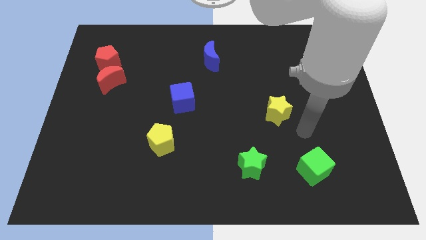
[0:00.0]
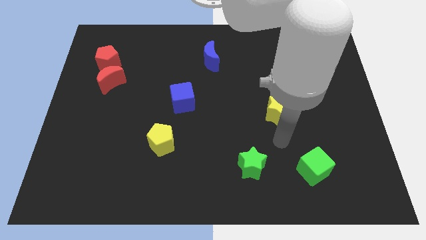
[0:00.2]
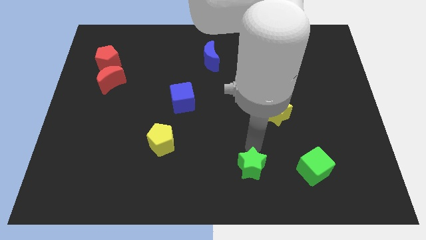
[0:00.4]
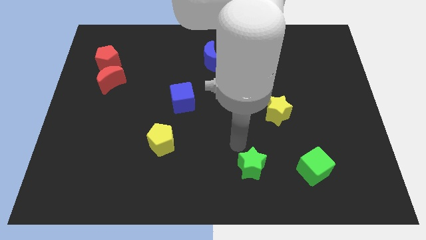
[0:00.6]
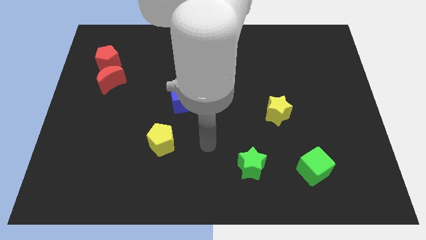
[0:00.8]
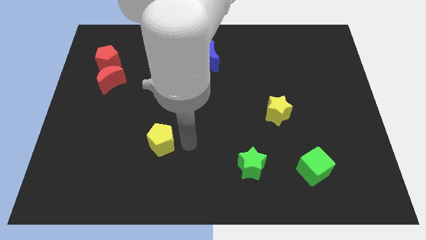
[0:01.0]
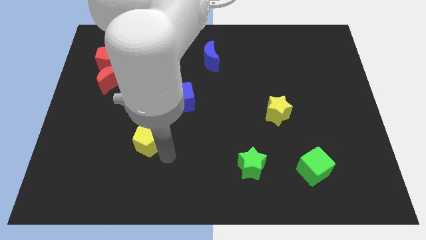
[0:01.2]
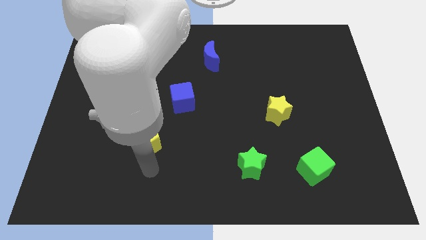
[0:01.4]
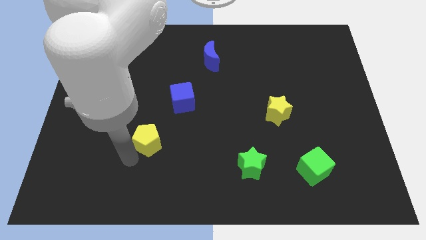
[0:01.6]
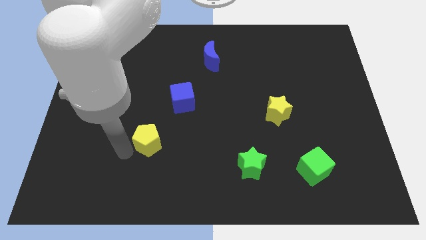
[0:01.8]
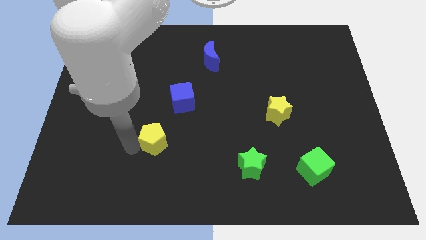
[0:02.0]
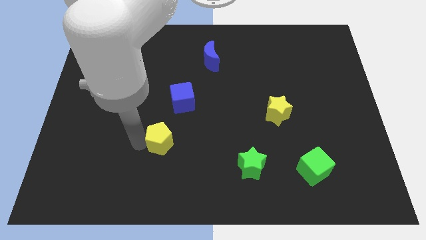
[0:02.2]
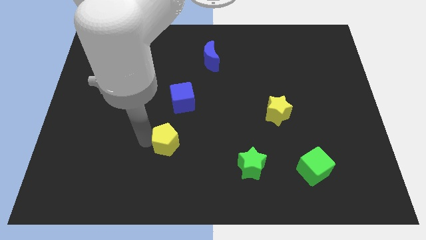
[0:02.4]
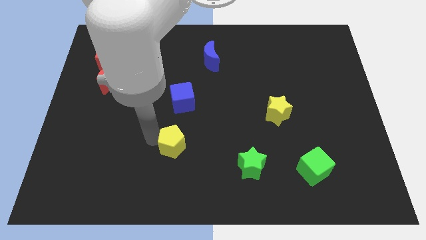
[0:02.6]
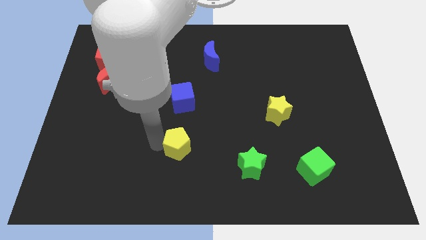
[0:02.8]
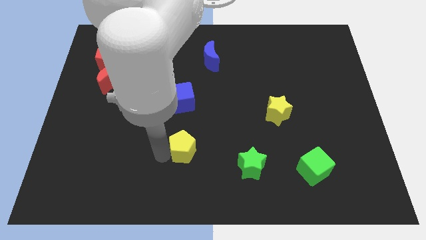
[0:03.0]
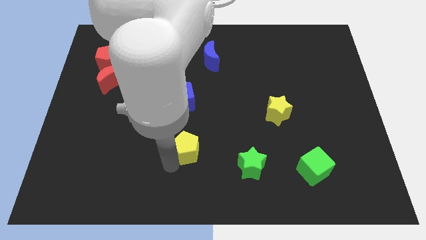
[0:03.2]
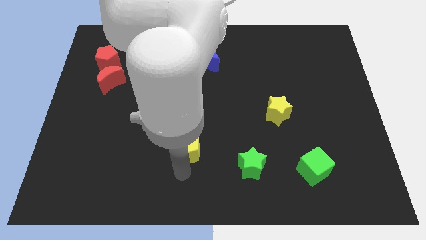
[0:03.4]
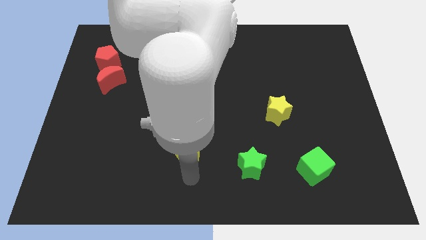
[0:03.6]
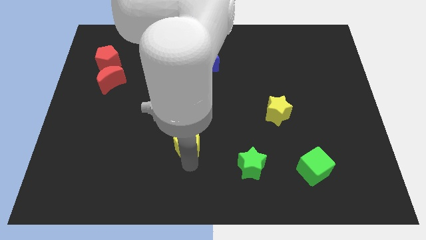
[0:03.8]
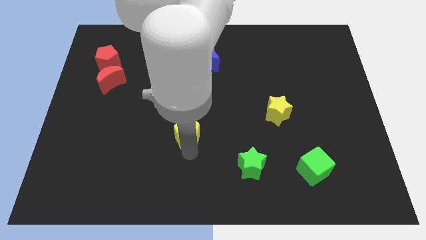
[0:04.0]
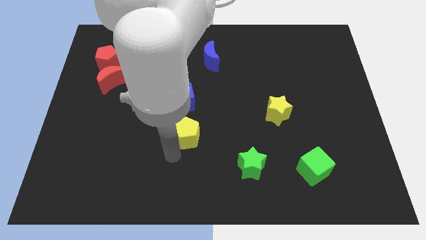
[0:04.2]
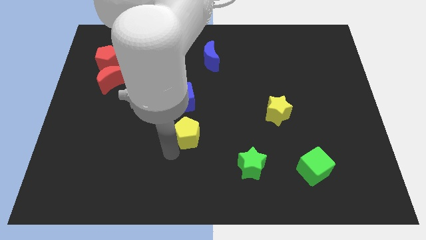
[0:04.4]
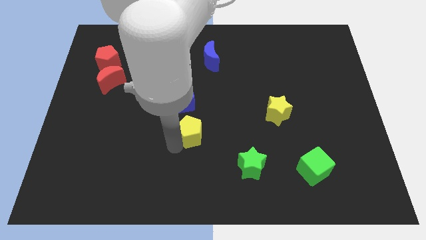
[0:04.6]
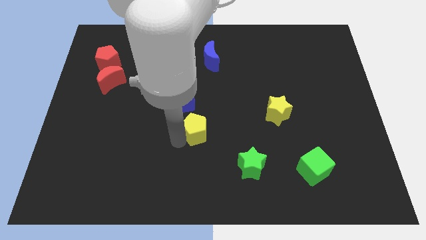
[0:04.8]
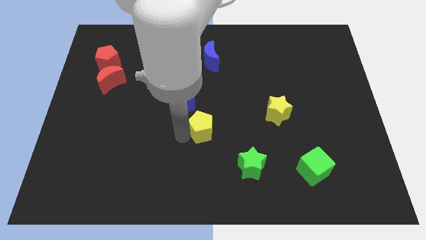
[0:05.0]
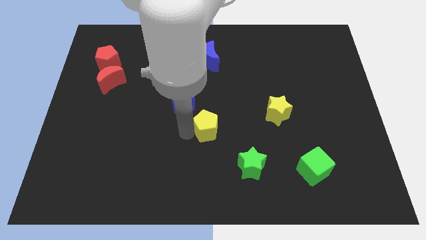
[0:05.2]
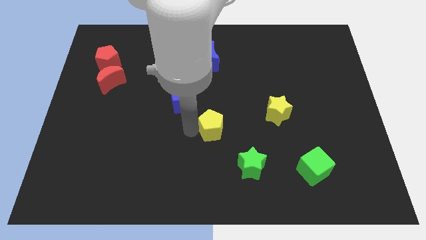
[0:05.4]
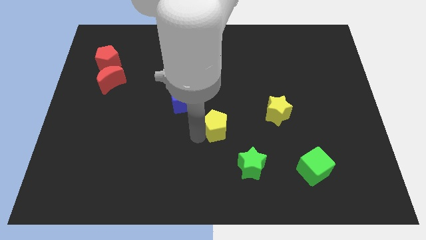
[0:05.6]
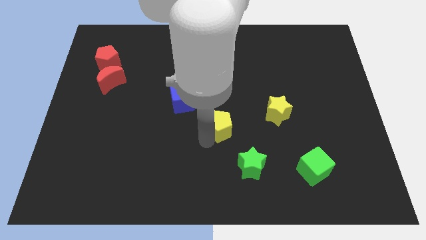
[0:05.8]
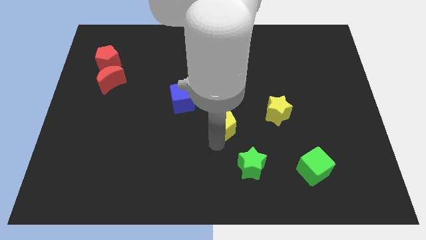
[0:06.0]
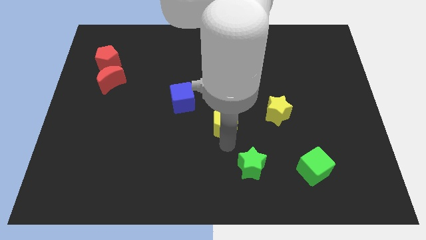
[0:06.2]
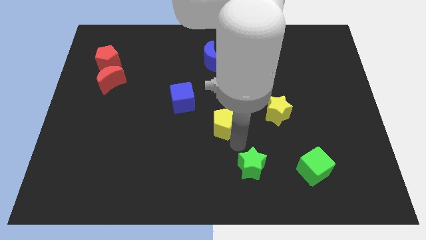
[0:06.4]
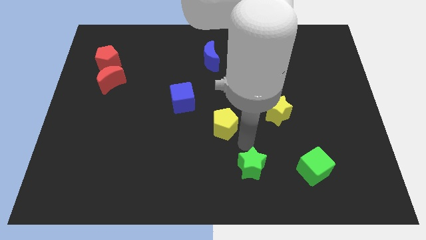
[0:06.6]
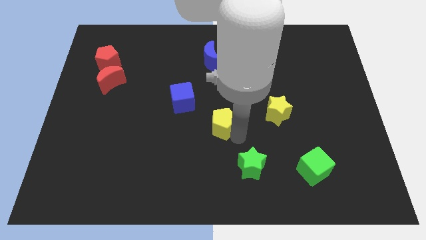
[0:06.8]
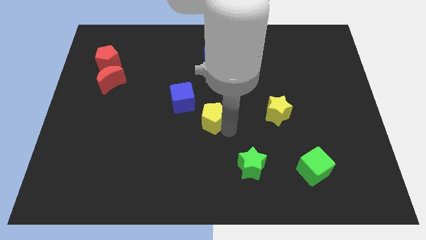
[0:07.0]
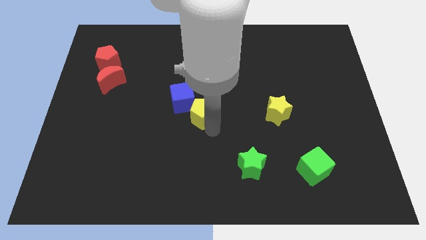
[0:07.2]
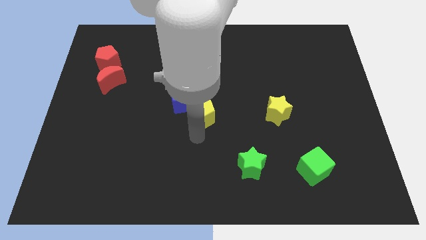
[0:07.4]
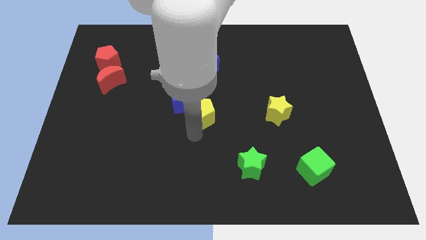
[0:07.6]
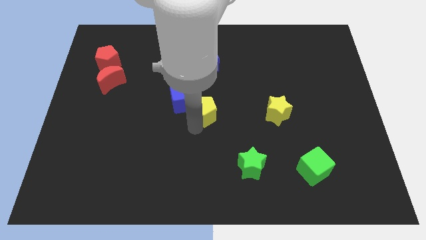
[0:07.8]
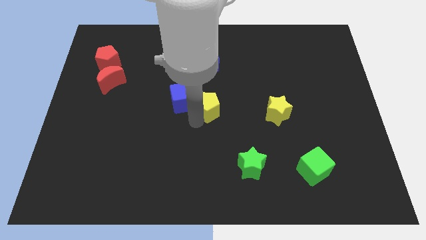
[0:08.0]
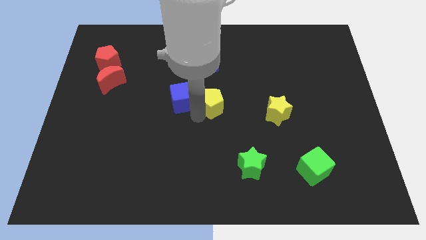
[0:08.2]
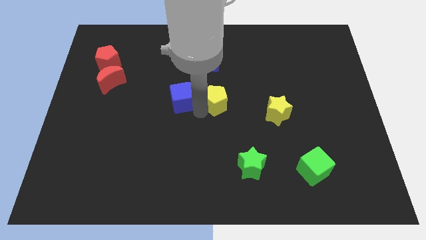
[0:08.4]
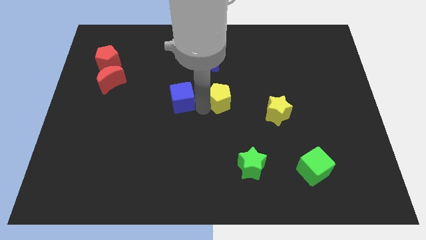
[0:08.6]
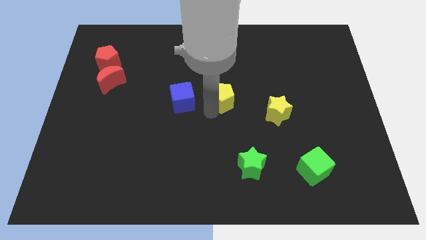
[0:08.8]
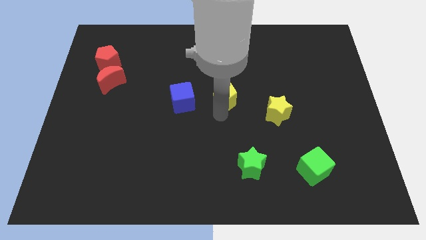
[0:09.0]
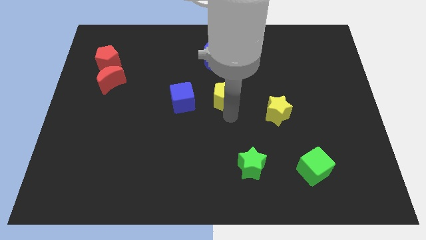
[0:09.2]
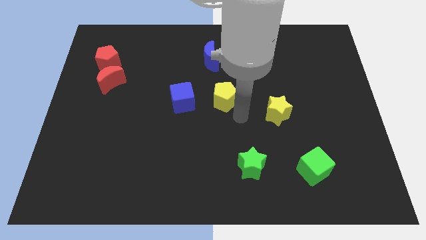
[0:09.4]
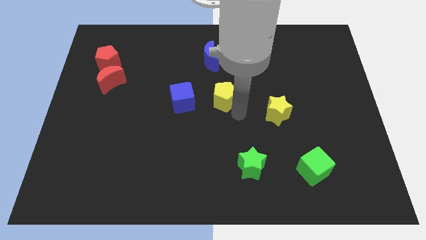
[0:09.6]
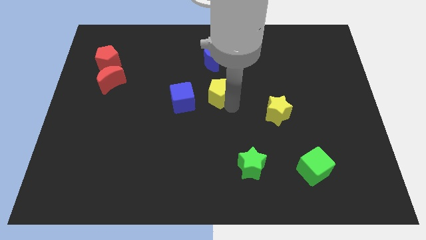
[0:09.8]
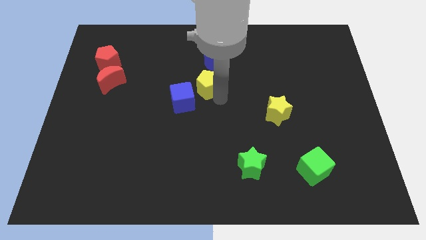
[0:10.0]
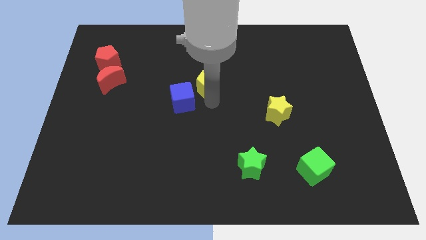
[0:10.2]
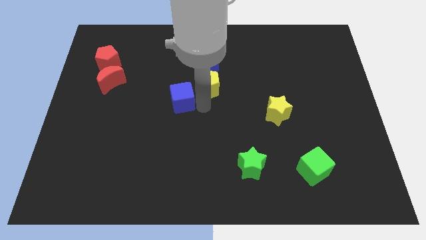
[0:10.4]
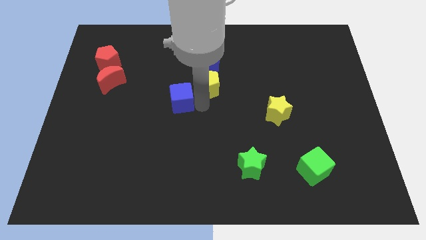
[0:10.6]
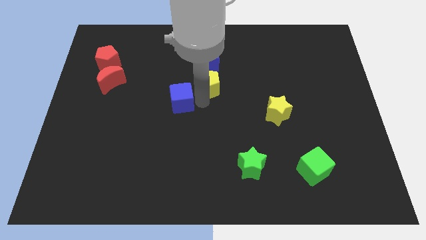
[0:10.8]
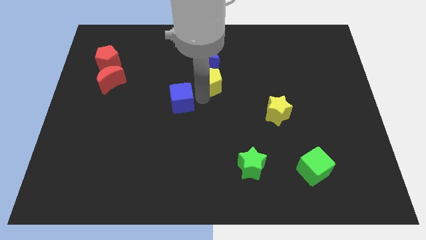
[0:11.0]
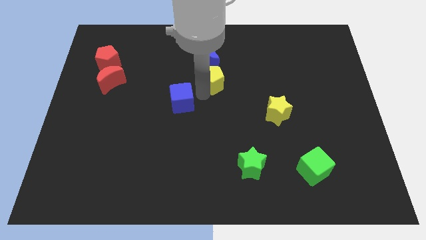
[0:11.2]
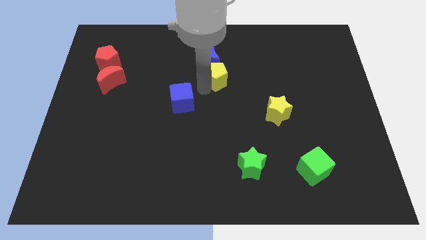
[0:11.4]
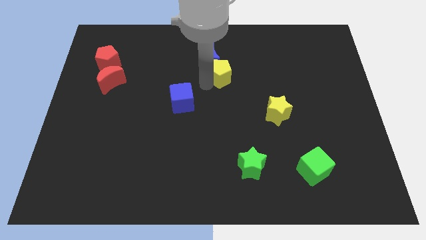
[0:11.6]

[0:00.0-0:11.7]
push the yellow pentagon close to the blue moon

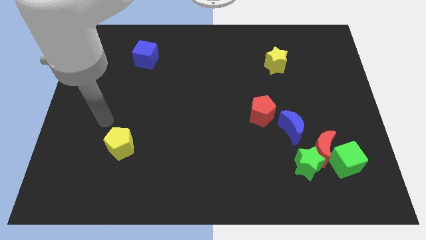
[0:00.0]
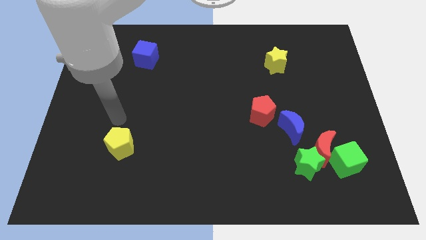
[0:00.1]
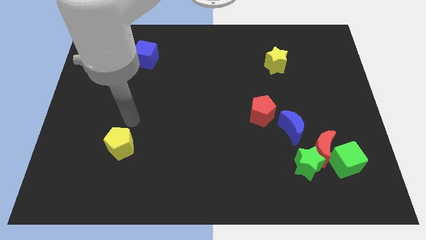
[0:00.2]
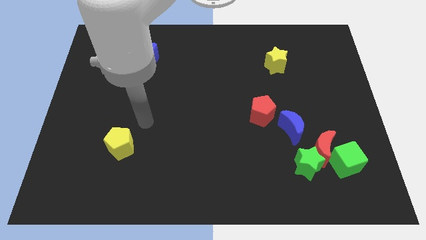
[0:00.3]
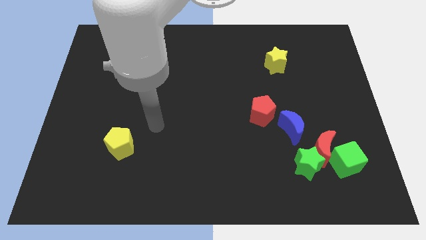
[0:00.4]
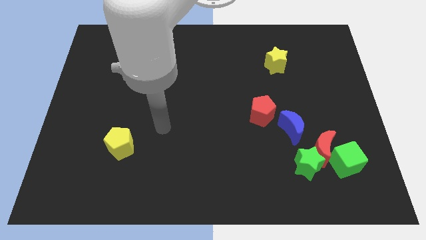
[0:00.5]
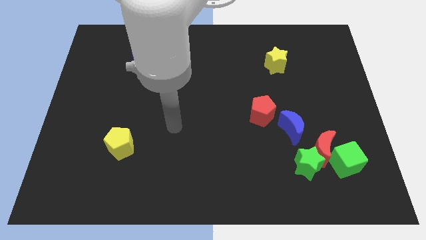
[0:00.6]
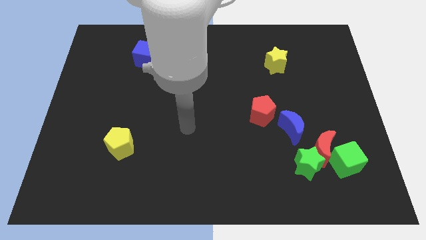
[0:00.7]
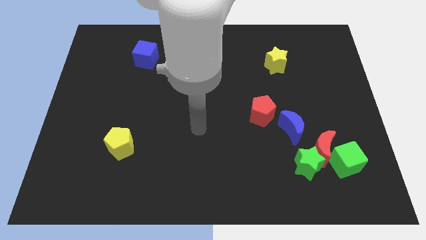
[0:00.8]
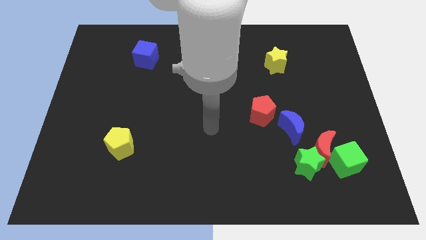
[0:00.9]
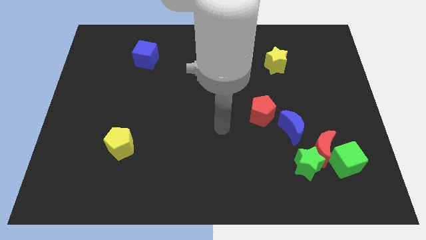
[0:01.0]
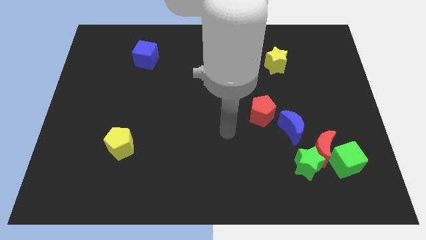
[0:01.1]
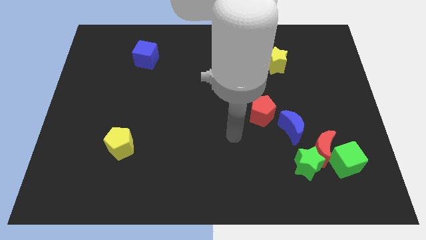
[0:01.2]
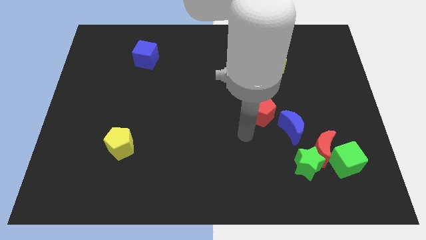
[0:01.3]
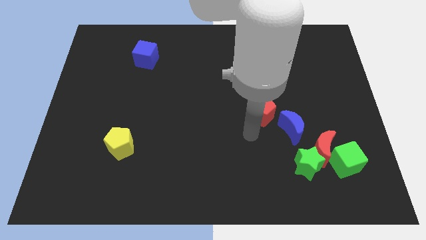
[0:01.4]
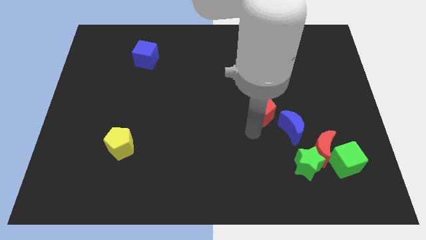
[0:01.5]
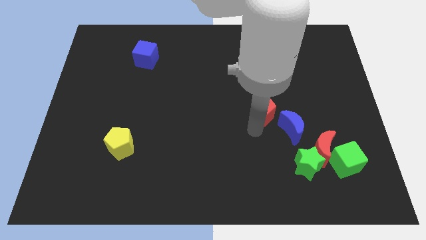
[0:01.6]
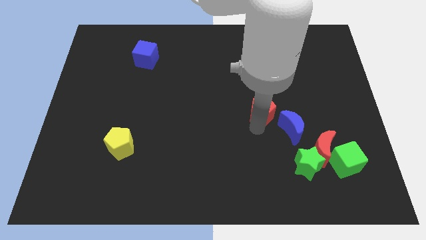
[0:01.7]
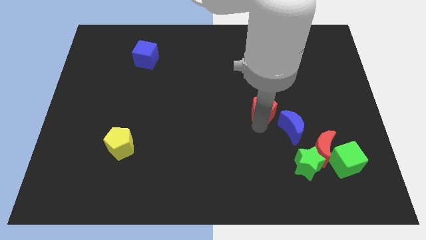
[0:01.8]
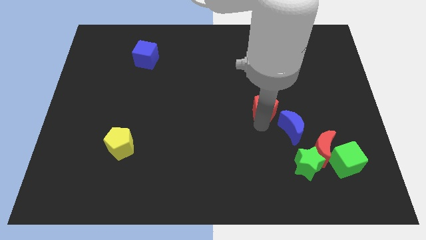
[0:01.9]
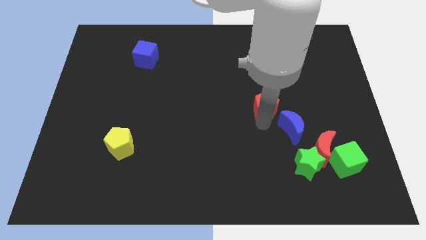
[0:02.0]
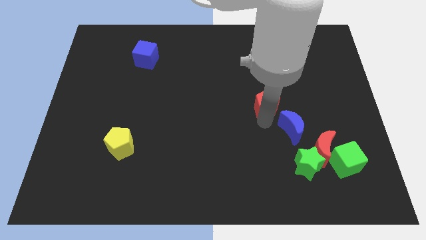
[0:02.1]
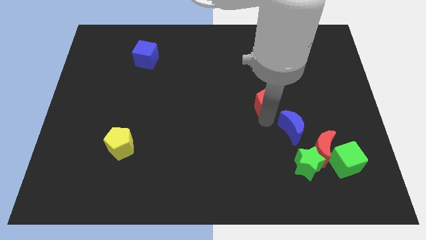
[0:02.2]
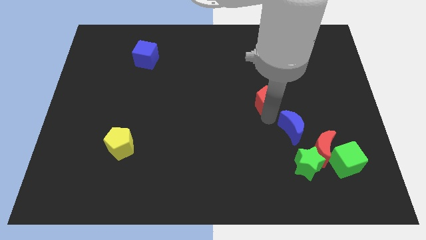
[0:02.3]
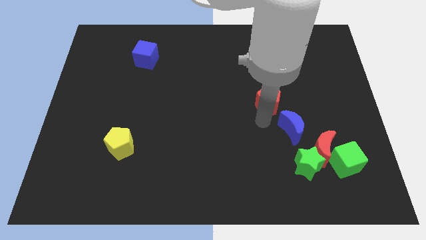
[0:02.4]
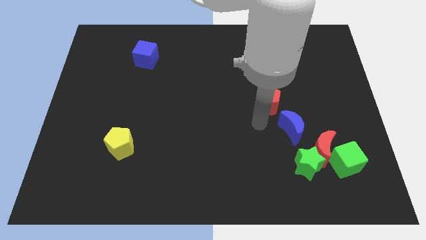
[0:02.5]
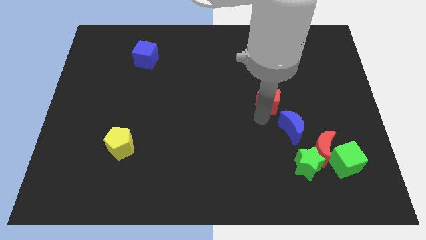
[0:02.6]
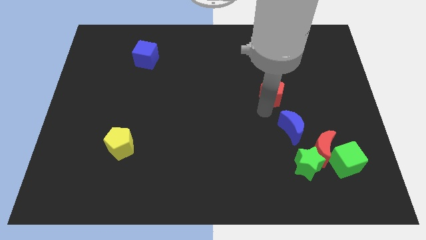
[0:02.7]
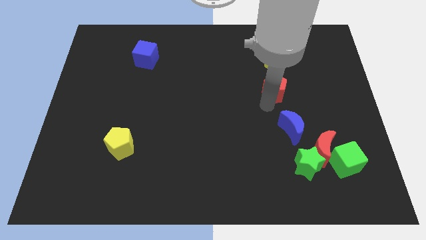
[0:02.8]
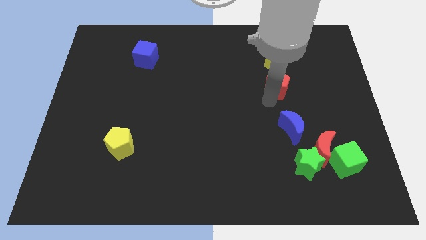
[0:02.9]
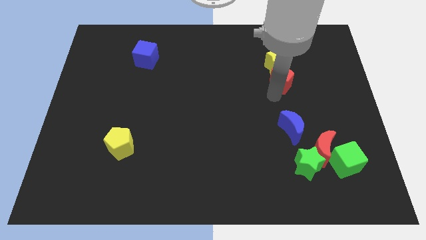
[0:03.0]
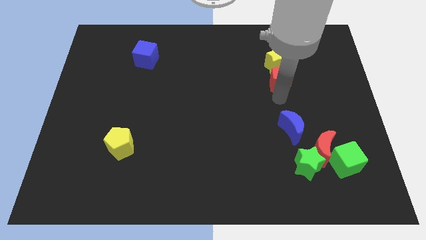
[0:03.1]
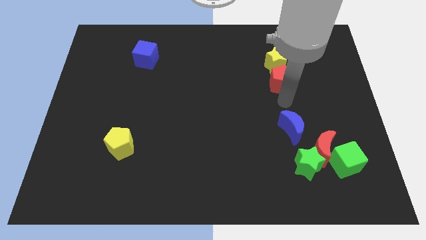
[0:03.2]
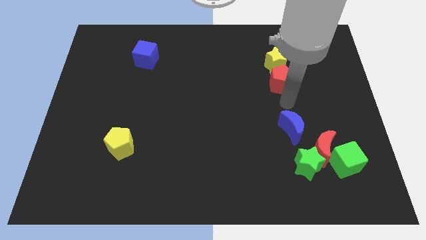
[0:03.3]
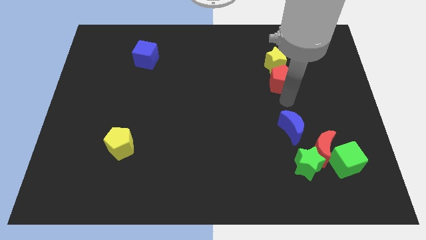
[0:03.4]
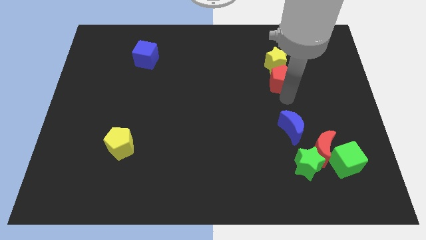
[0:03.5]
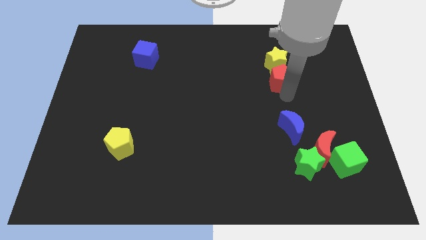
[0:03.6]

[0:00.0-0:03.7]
slide the red pentagon towards the yellow star
